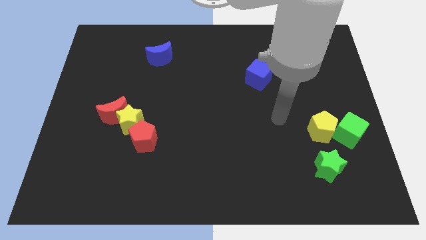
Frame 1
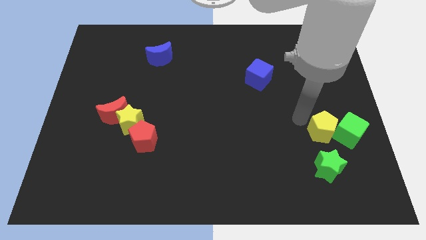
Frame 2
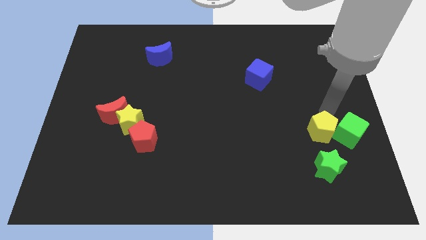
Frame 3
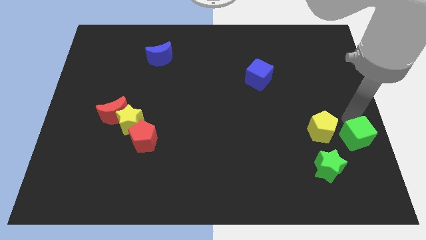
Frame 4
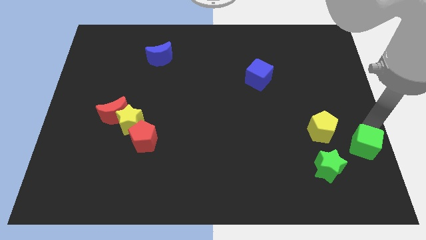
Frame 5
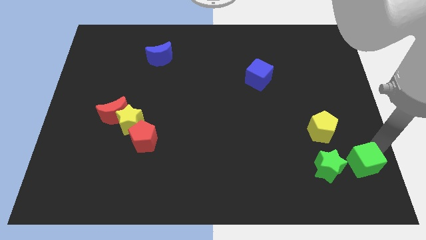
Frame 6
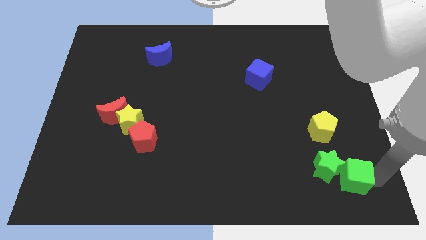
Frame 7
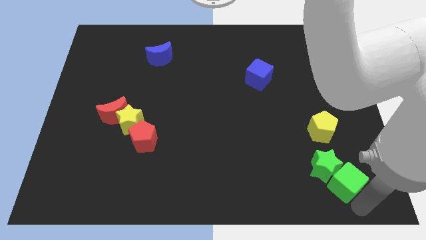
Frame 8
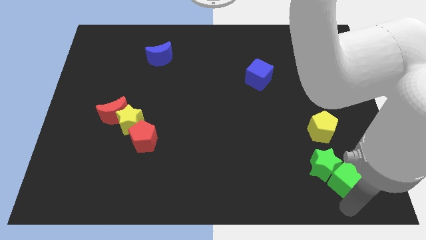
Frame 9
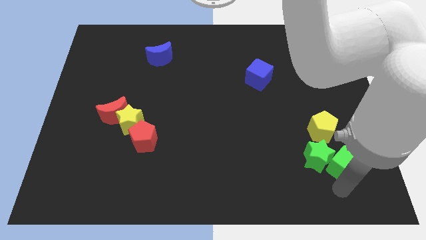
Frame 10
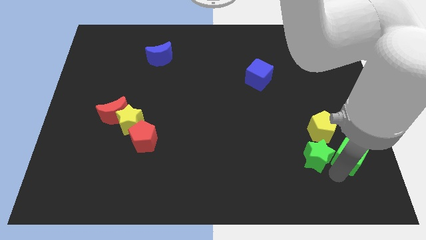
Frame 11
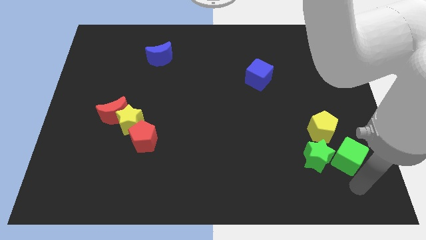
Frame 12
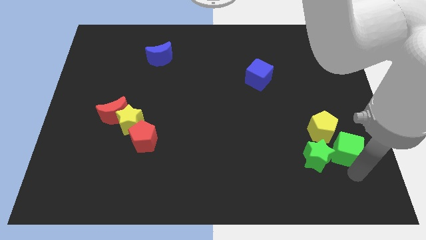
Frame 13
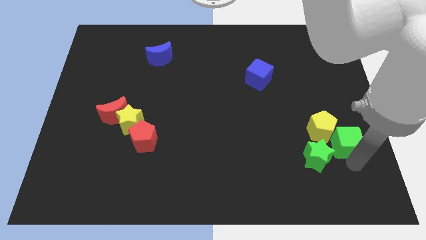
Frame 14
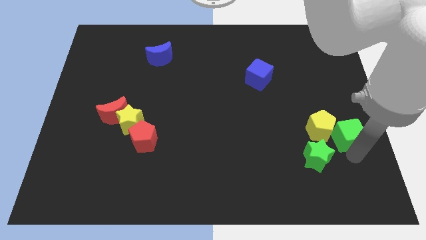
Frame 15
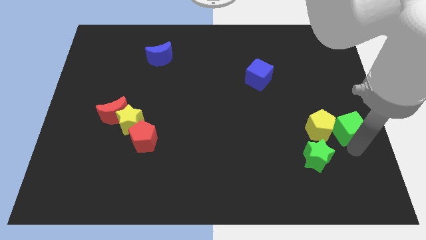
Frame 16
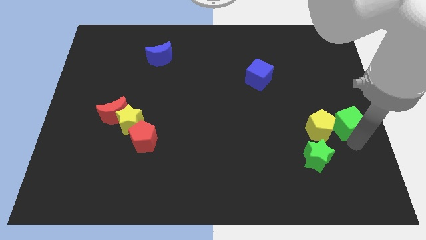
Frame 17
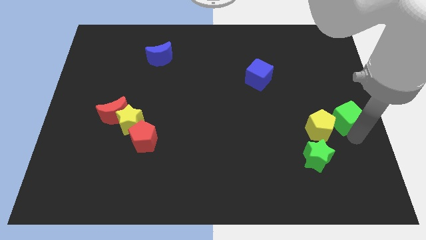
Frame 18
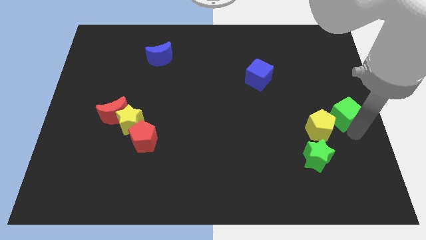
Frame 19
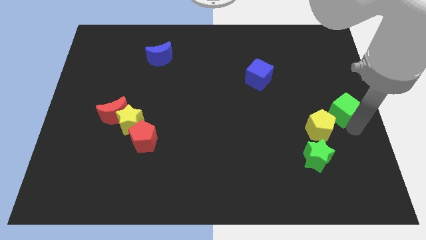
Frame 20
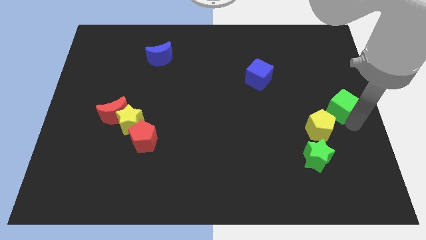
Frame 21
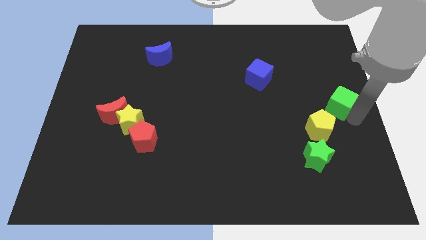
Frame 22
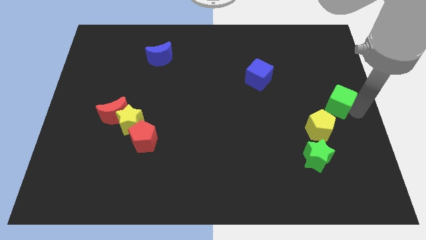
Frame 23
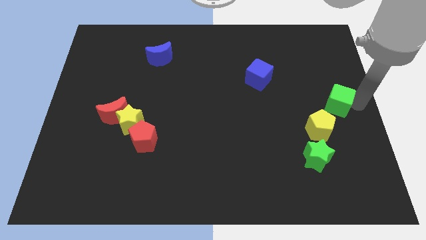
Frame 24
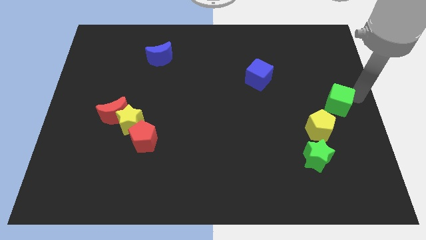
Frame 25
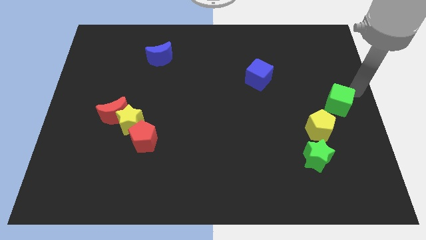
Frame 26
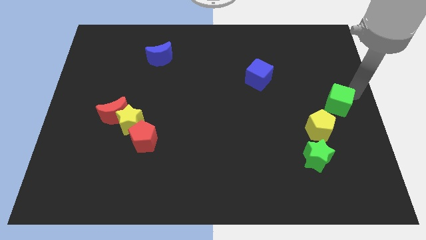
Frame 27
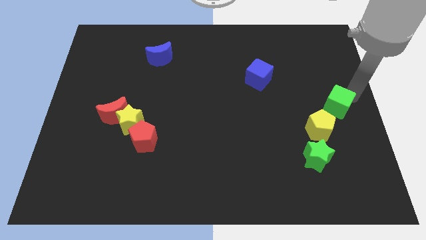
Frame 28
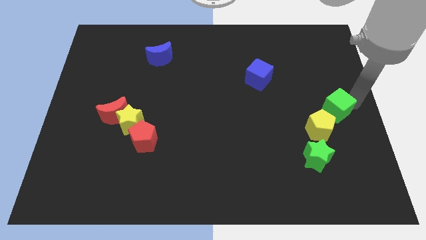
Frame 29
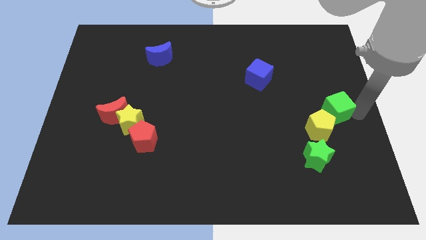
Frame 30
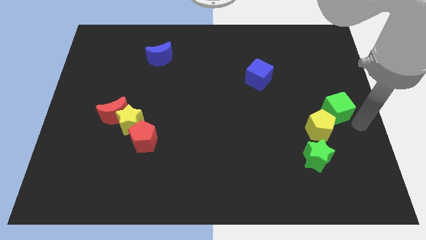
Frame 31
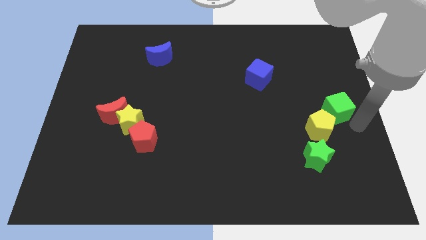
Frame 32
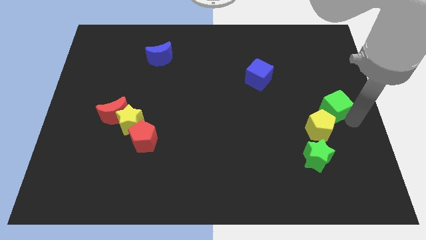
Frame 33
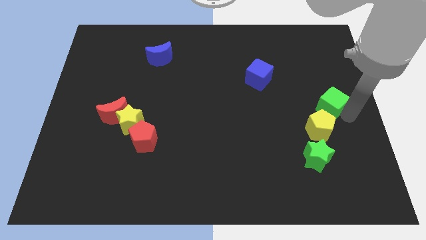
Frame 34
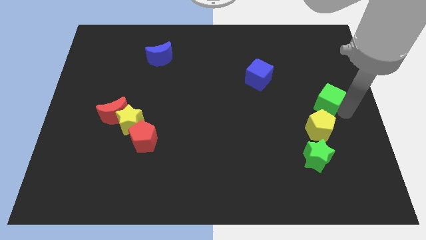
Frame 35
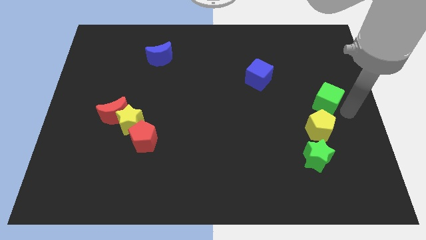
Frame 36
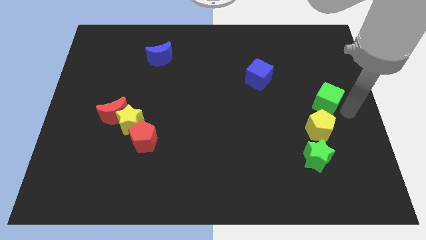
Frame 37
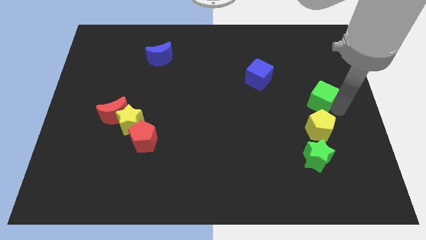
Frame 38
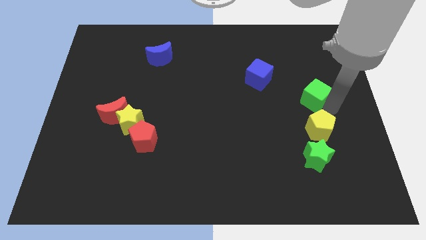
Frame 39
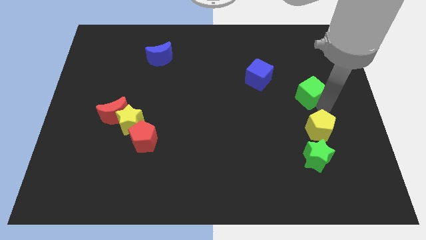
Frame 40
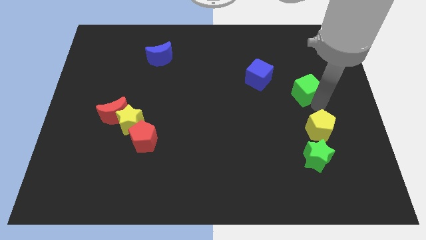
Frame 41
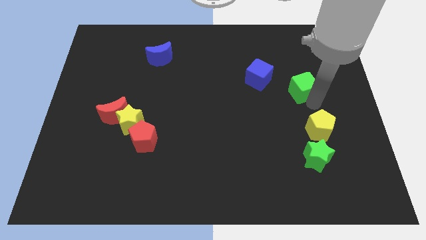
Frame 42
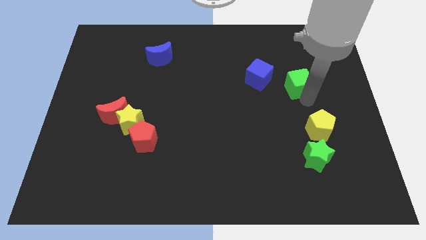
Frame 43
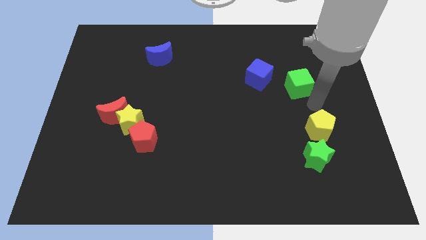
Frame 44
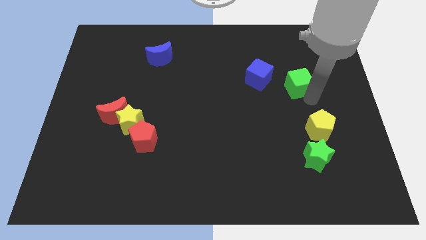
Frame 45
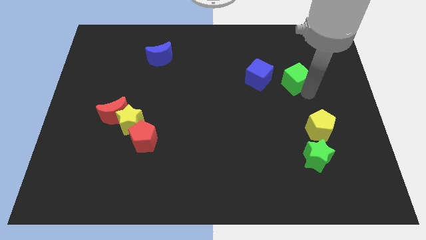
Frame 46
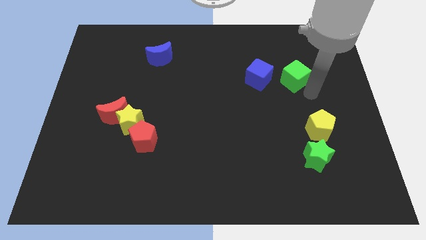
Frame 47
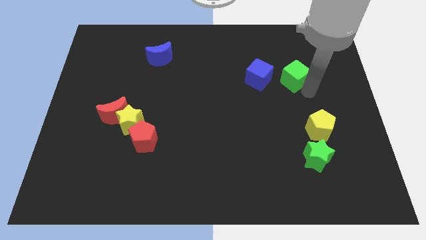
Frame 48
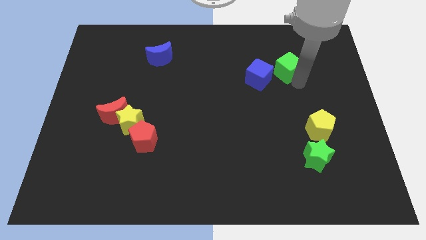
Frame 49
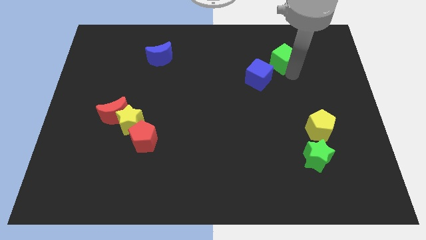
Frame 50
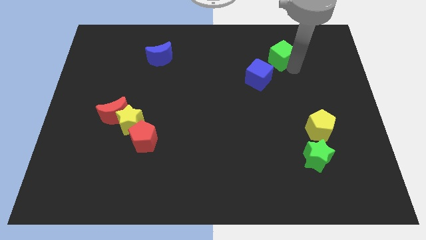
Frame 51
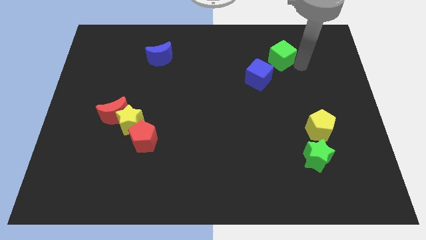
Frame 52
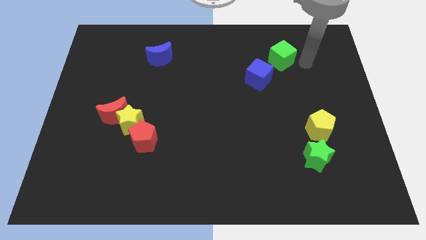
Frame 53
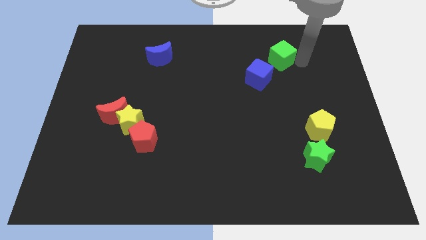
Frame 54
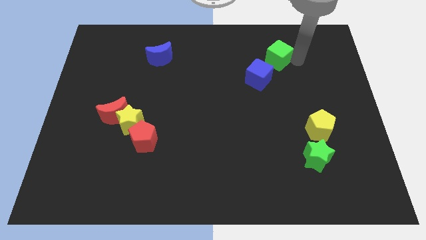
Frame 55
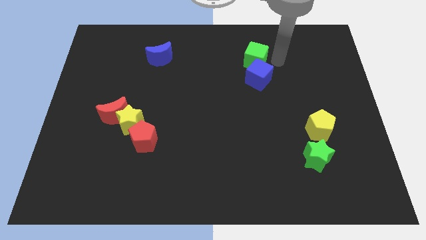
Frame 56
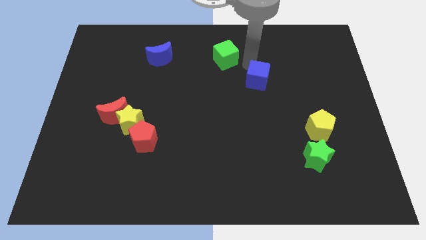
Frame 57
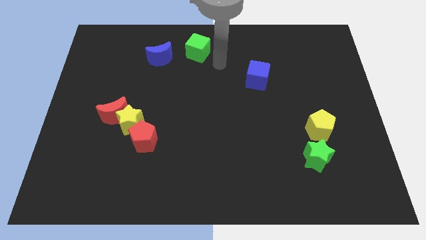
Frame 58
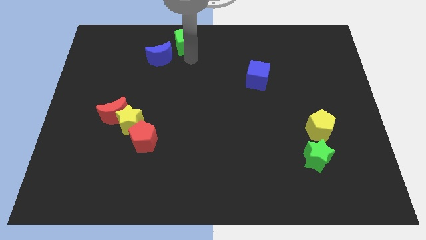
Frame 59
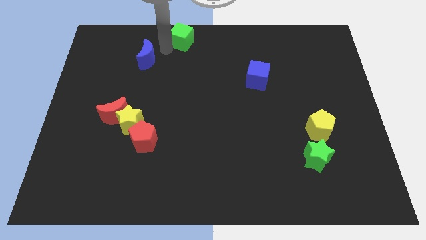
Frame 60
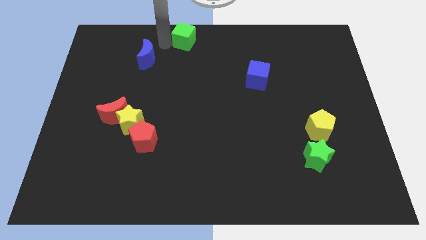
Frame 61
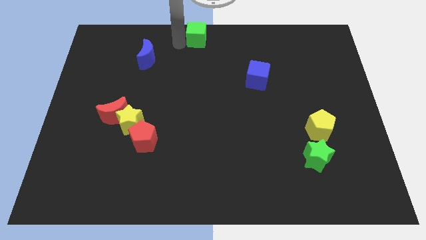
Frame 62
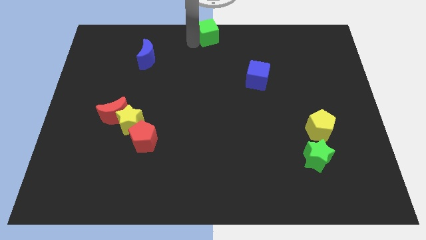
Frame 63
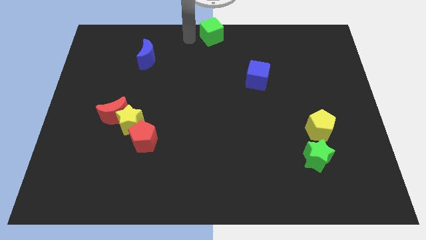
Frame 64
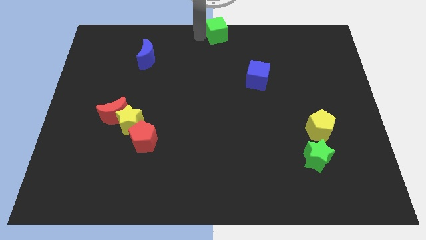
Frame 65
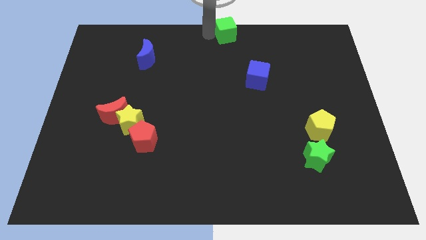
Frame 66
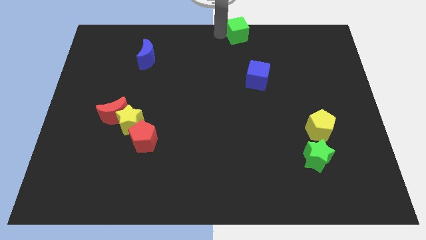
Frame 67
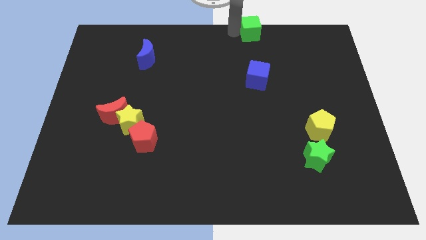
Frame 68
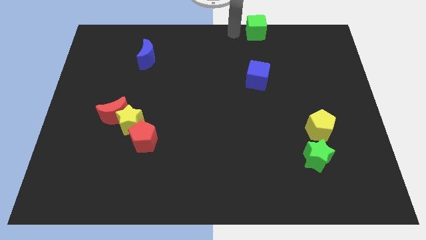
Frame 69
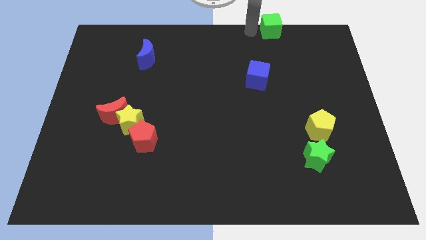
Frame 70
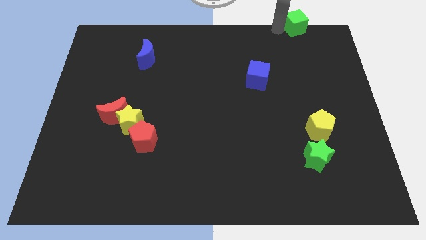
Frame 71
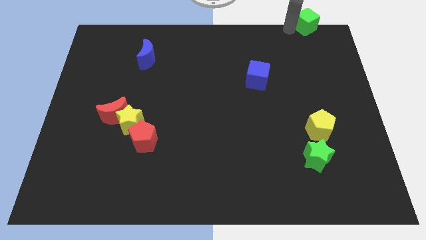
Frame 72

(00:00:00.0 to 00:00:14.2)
slide the green cube to the top right
